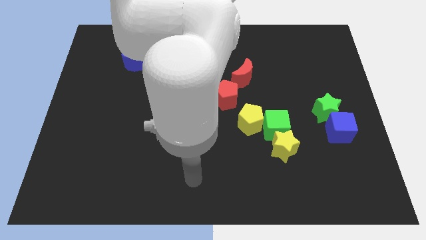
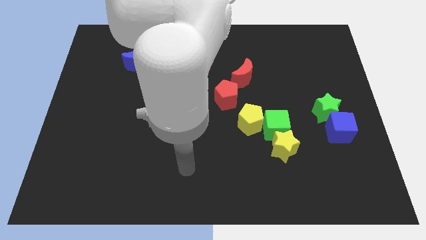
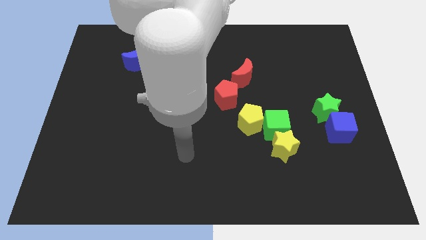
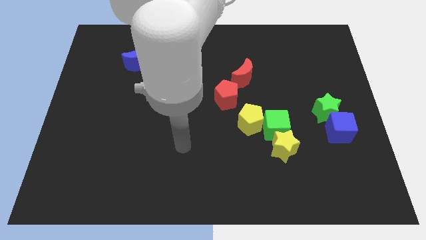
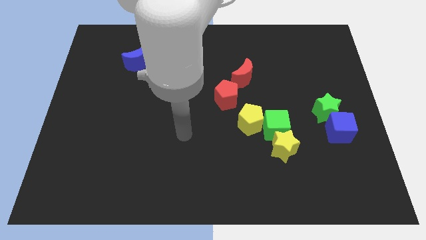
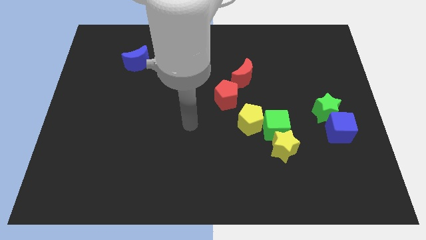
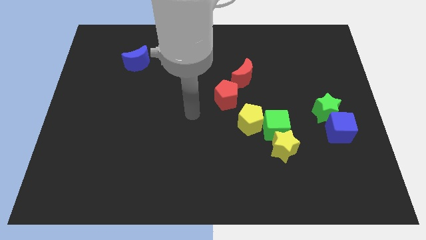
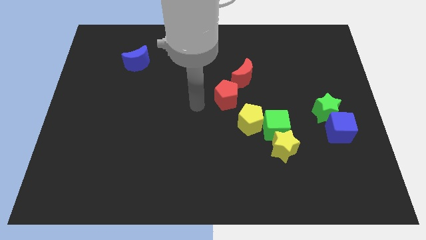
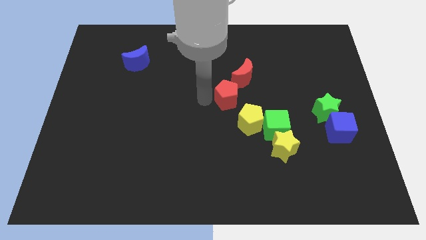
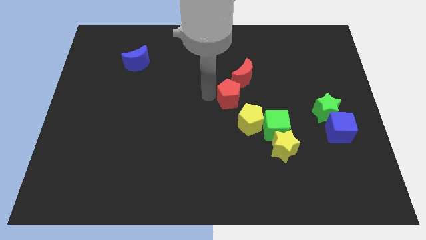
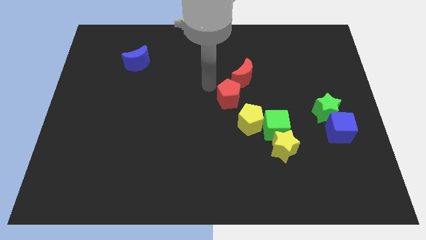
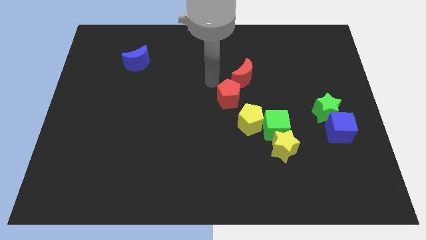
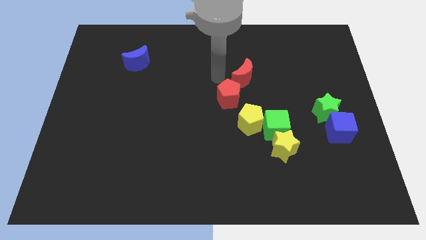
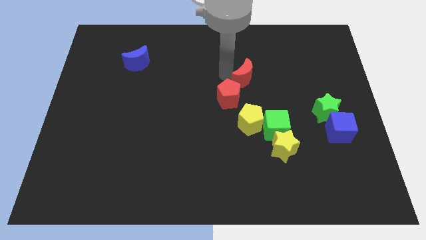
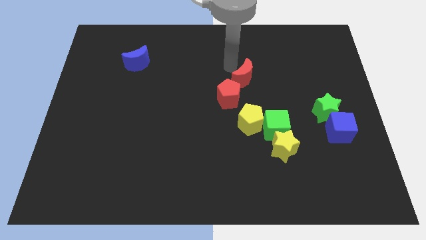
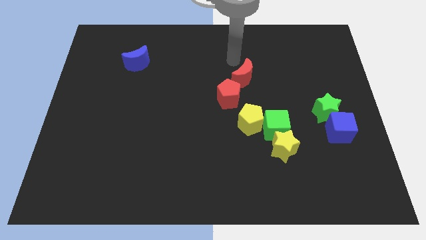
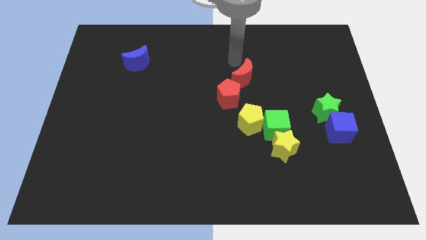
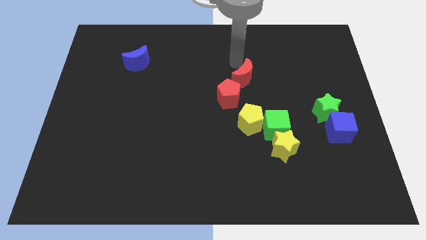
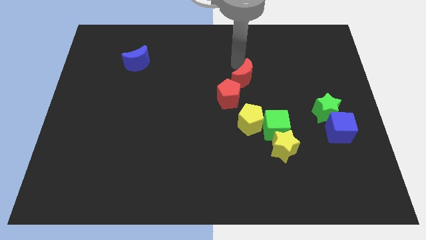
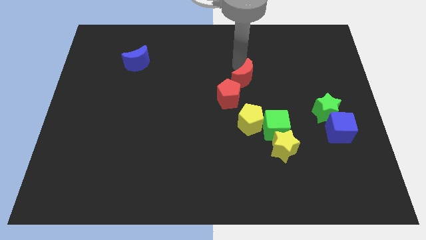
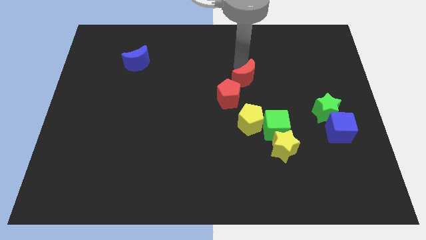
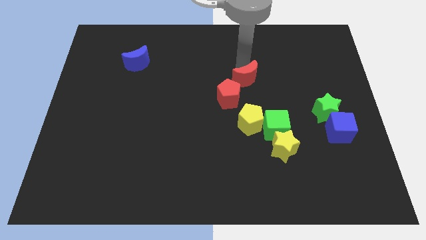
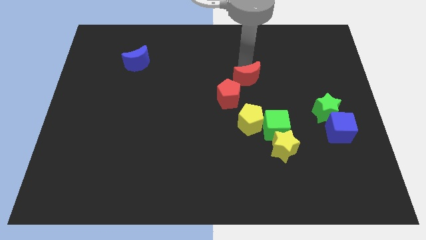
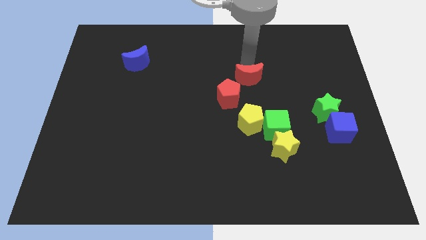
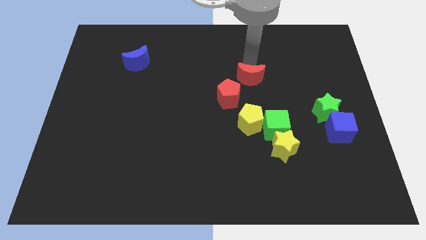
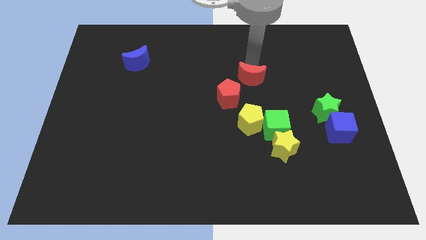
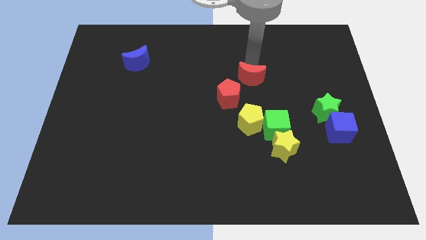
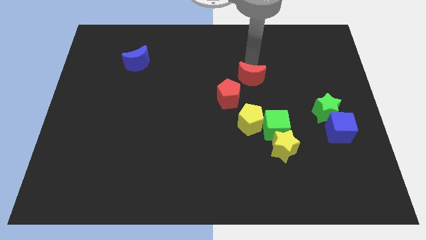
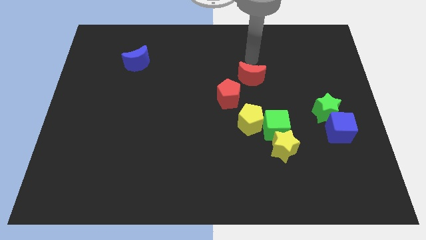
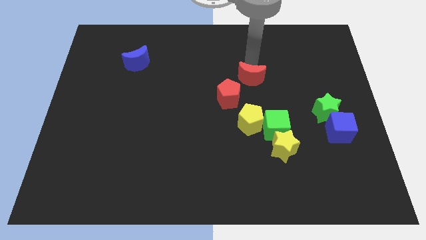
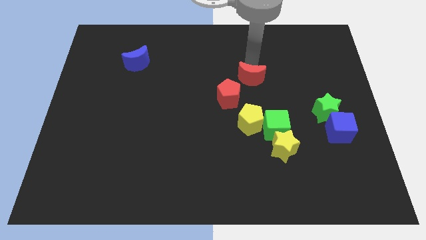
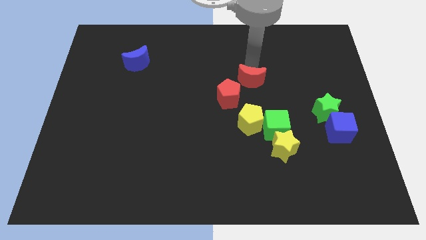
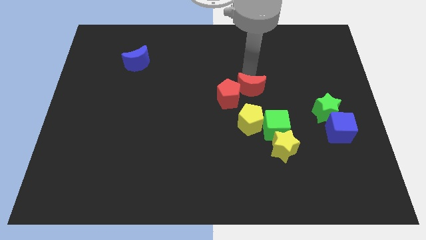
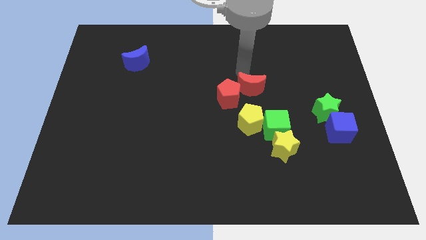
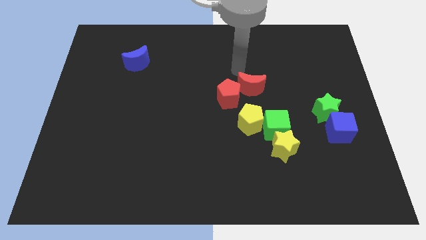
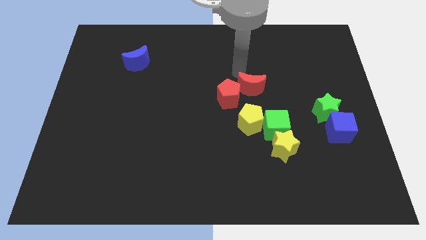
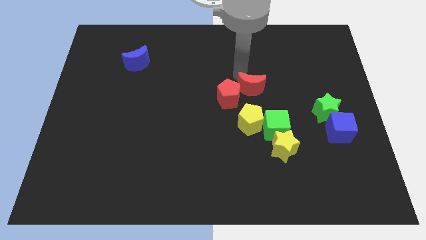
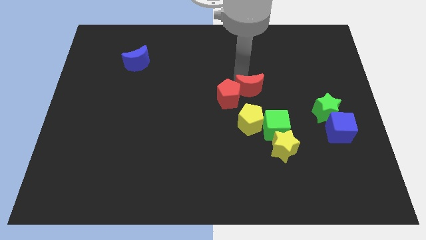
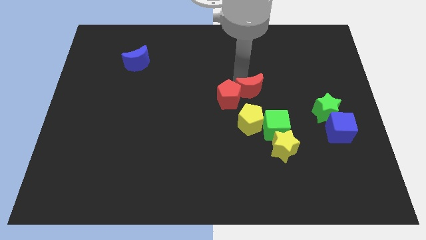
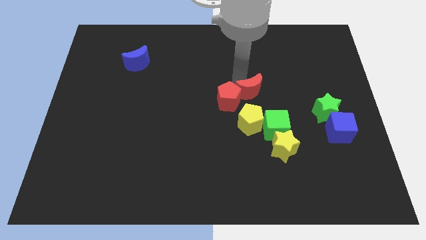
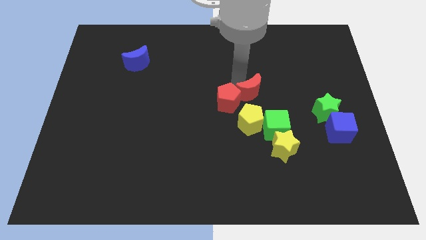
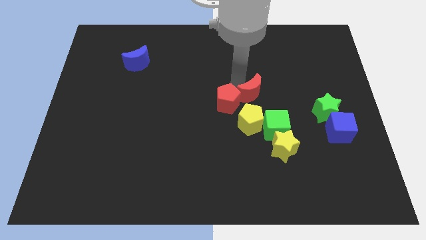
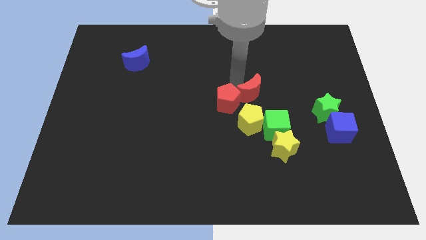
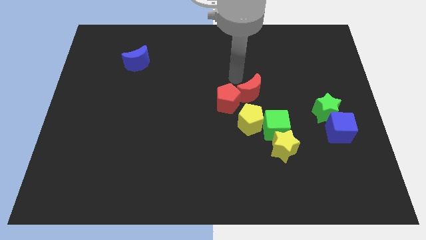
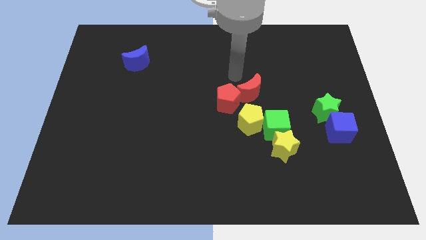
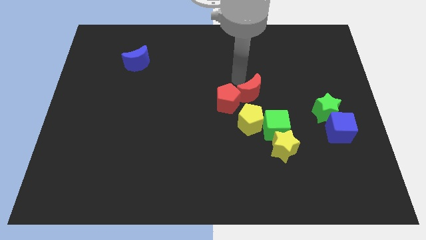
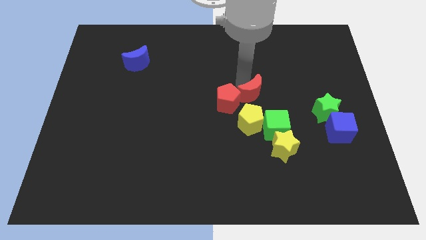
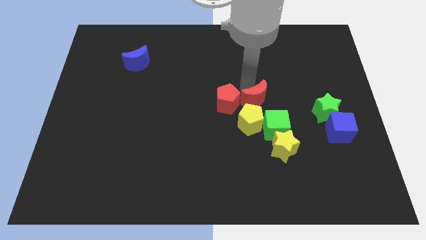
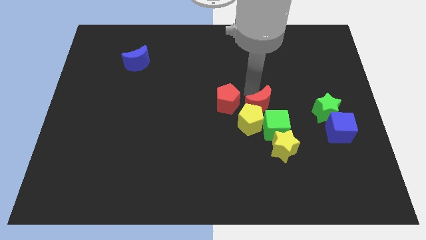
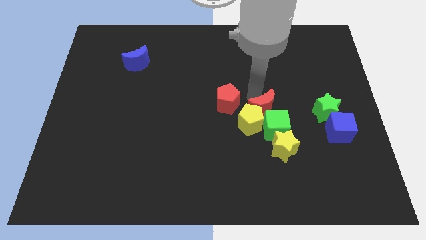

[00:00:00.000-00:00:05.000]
move the red moon to the green cube

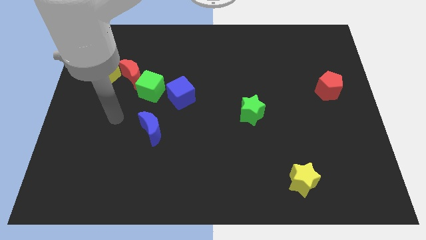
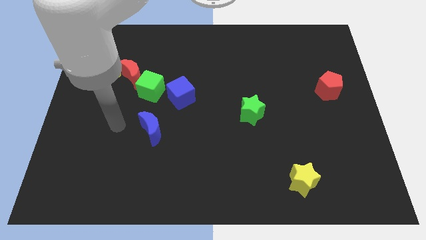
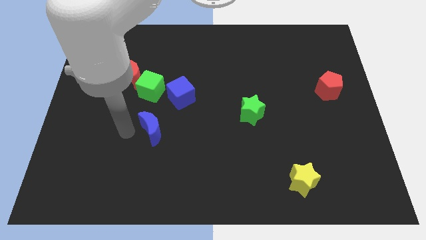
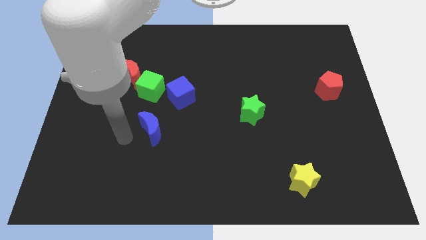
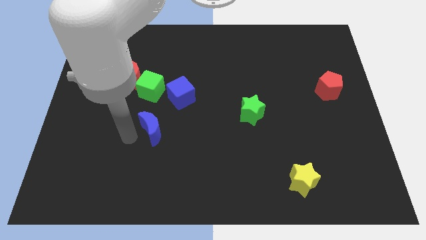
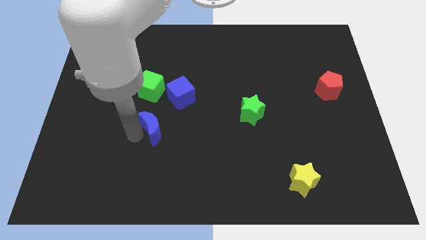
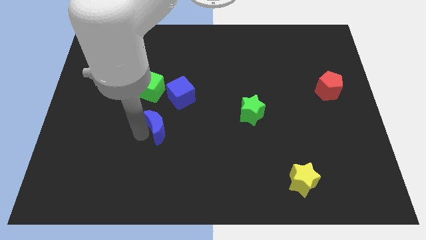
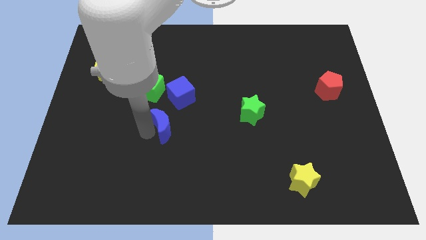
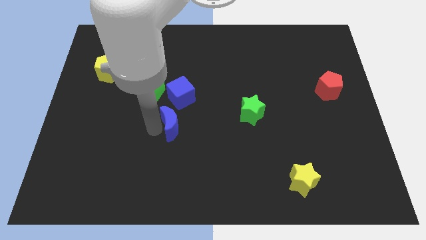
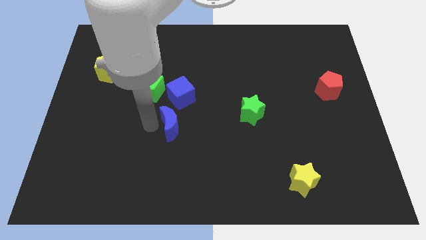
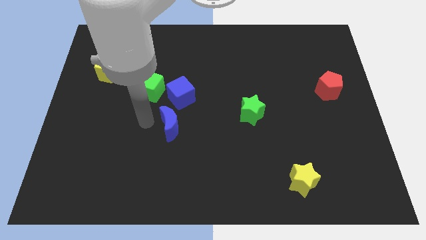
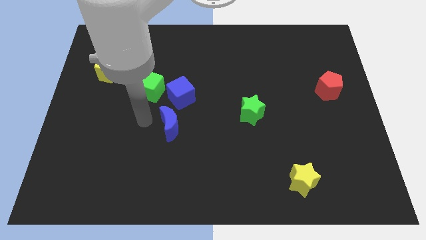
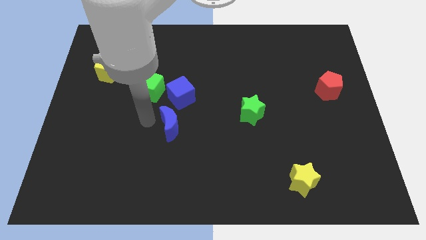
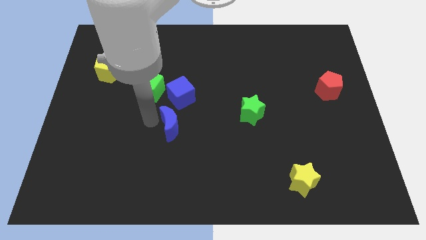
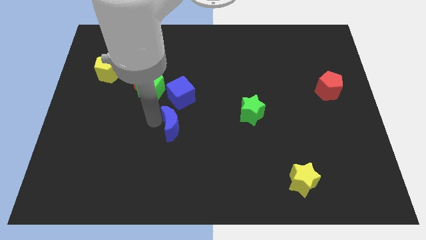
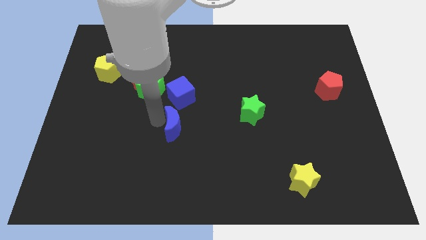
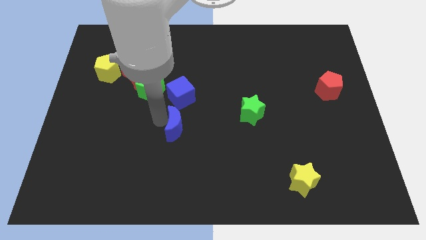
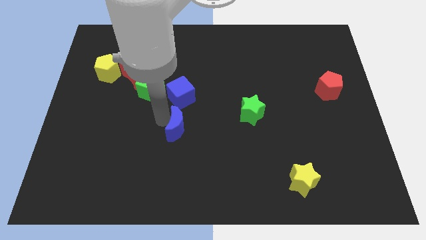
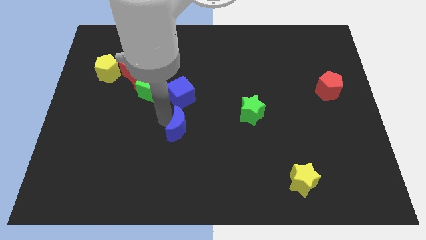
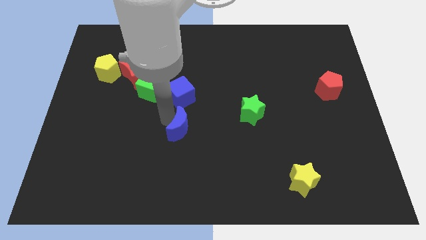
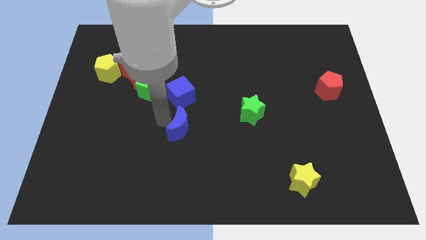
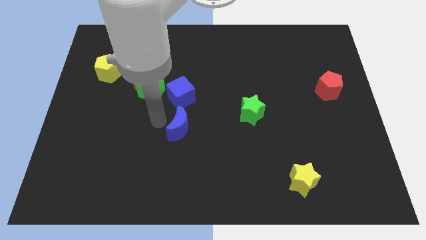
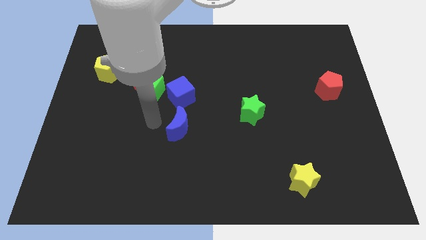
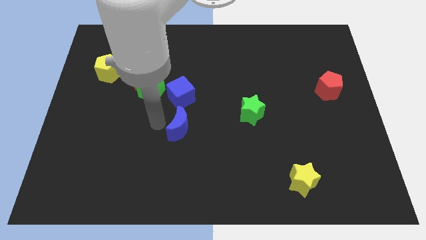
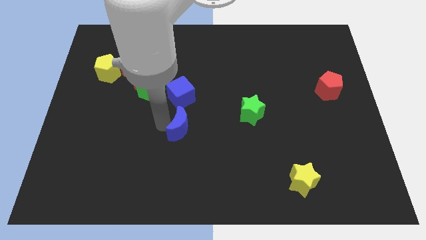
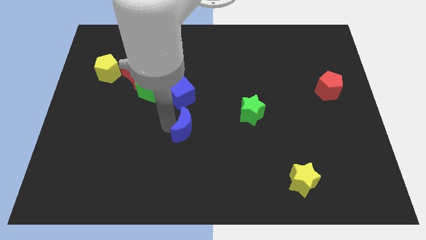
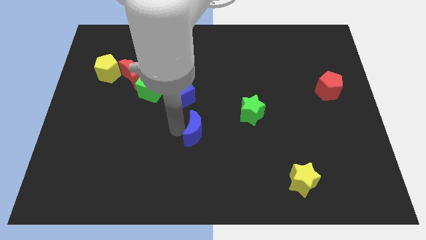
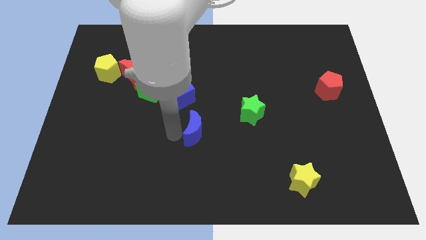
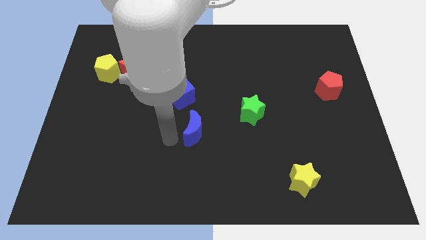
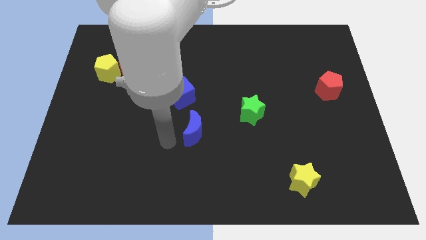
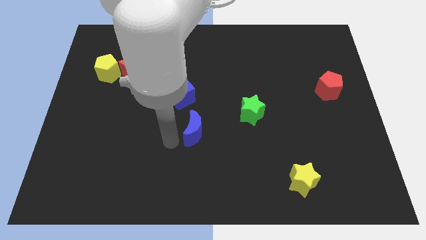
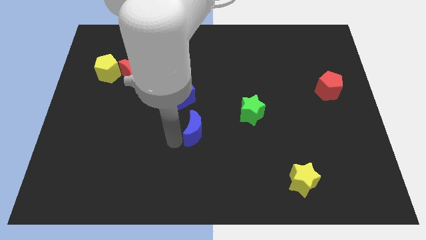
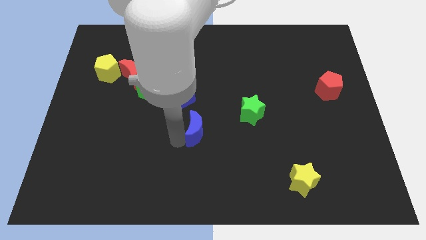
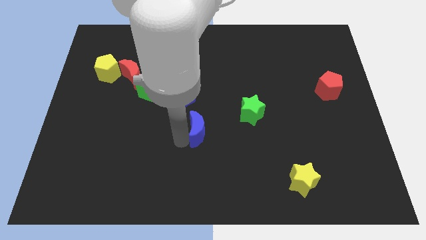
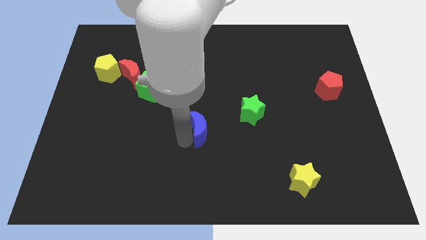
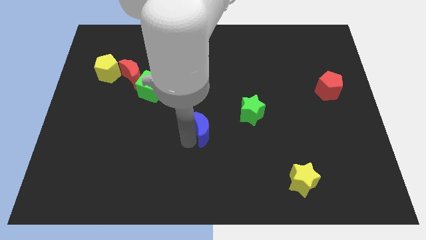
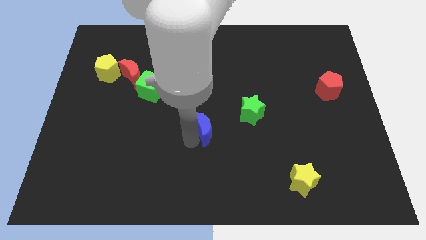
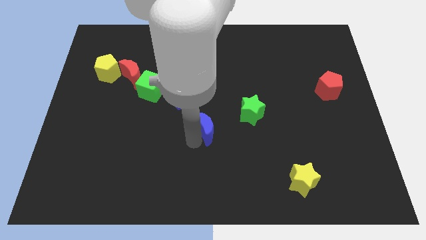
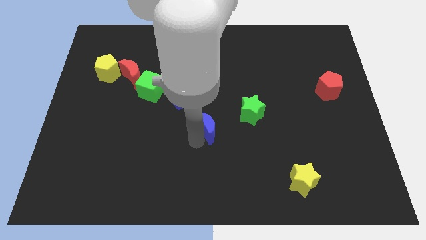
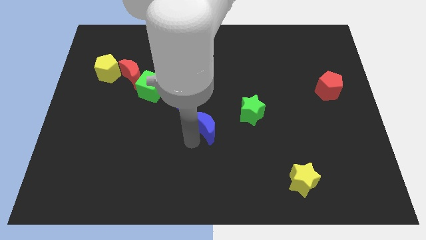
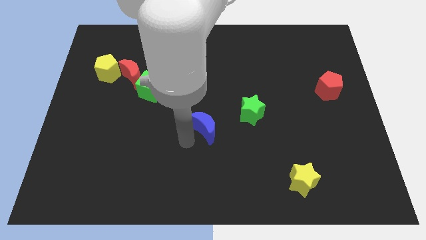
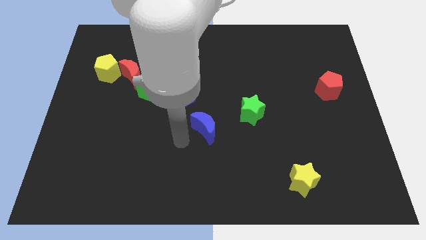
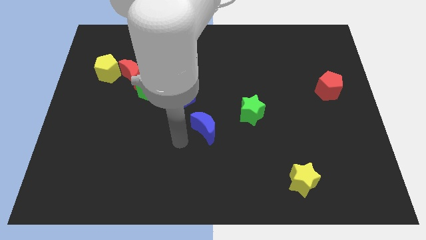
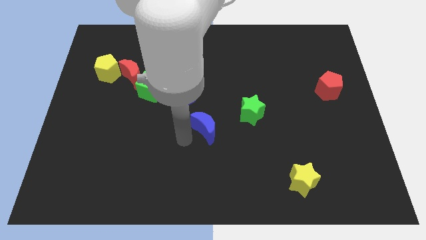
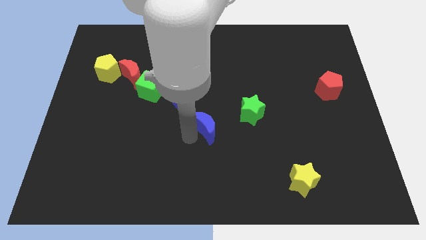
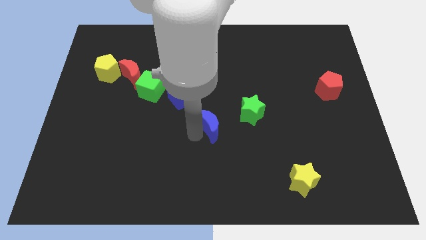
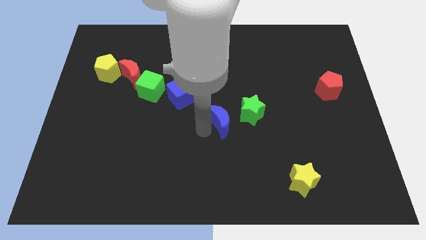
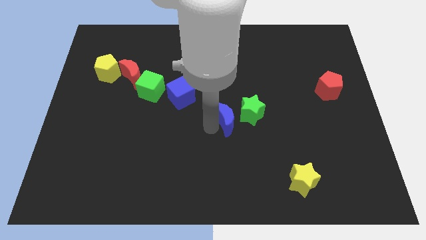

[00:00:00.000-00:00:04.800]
move the blue moon towards the green star
